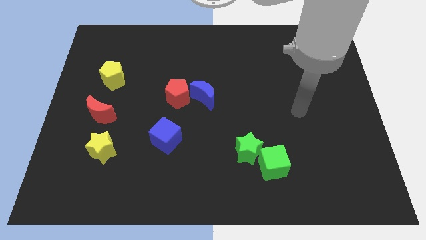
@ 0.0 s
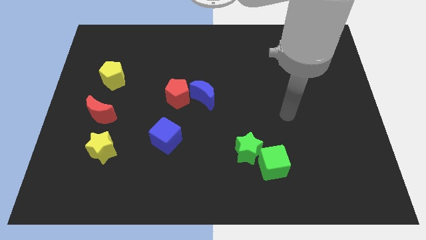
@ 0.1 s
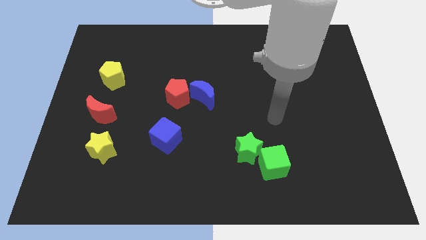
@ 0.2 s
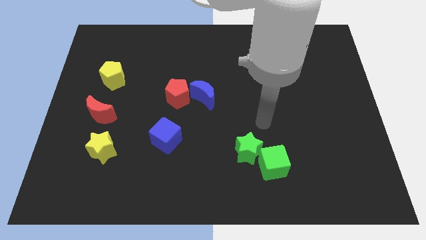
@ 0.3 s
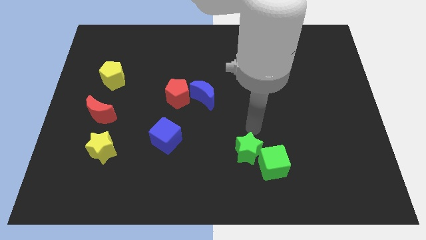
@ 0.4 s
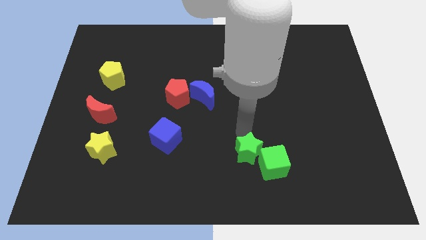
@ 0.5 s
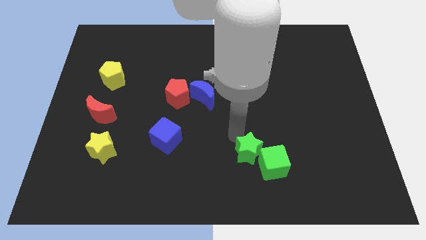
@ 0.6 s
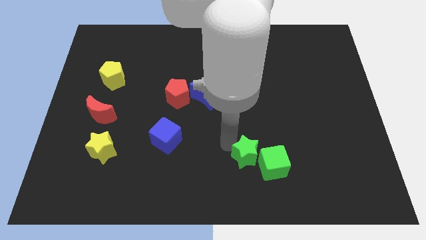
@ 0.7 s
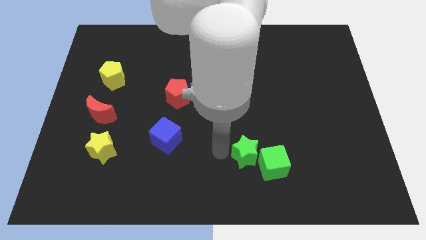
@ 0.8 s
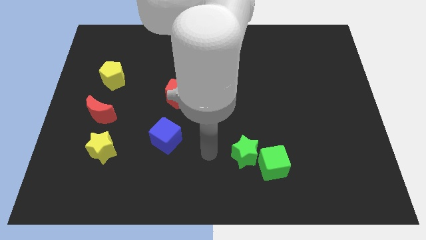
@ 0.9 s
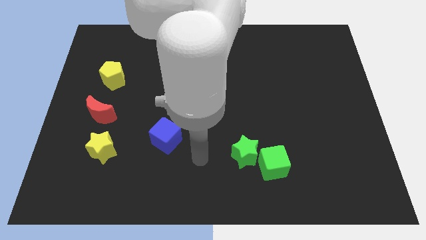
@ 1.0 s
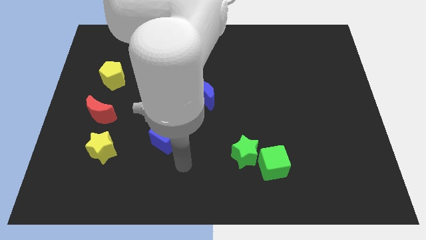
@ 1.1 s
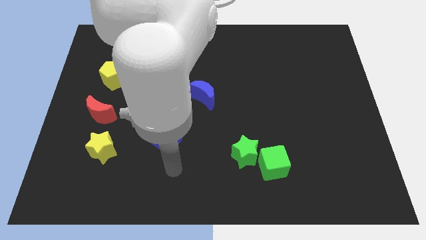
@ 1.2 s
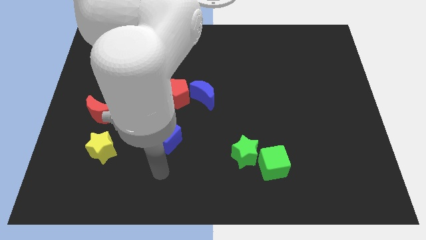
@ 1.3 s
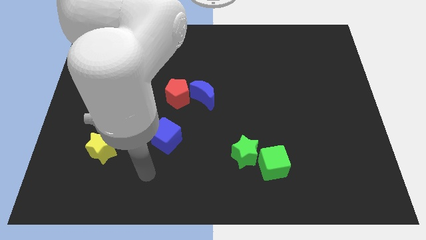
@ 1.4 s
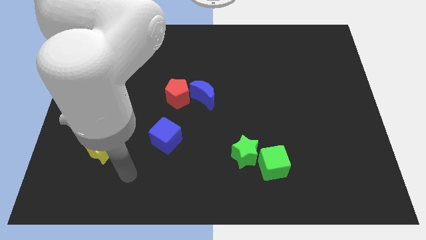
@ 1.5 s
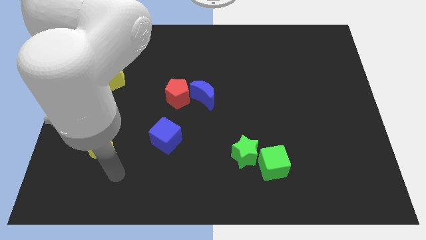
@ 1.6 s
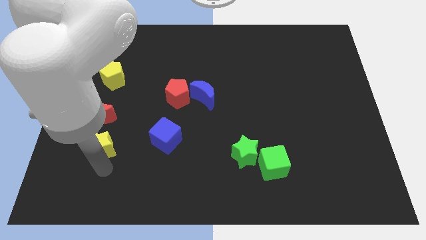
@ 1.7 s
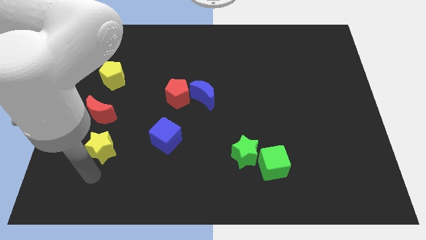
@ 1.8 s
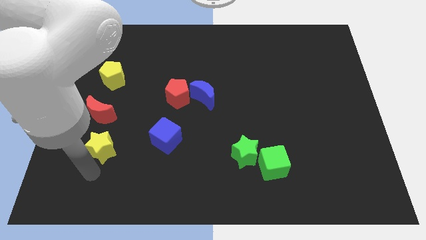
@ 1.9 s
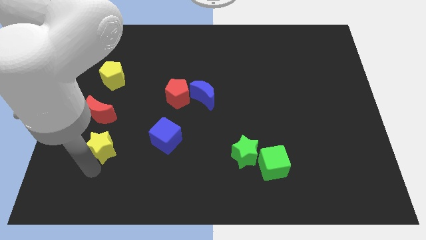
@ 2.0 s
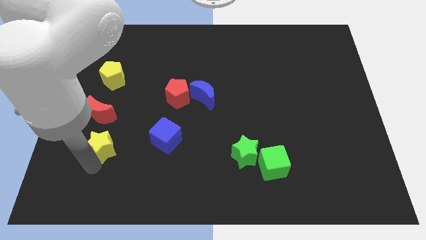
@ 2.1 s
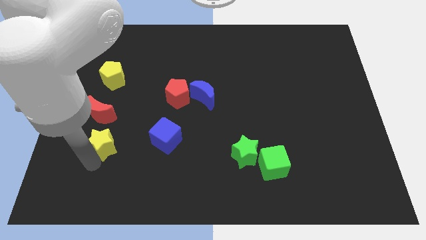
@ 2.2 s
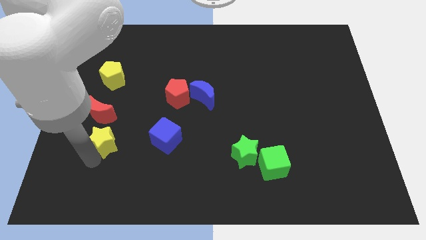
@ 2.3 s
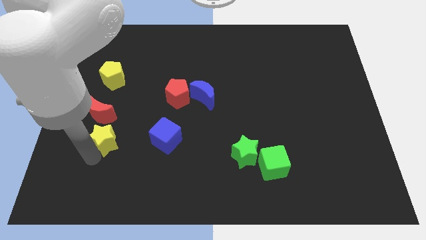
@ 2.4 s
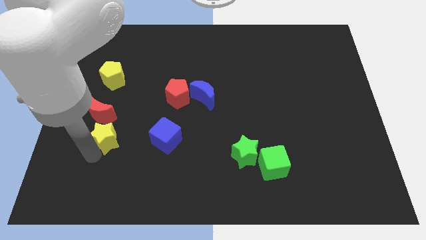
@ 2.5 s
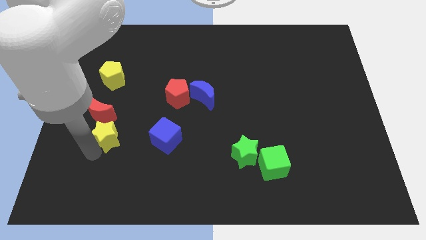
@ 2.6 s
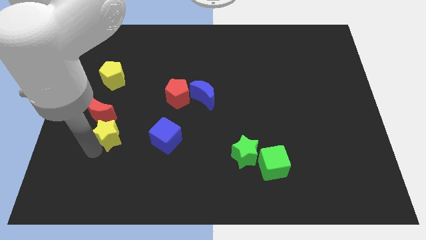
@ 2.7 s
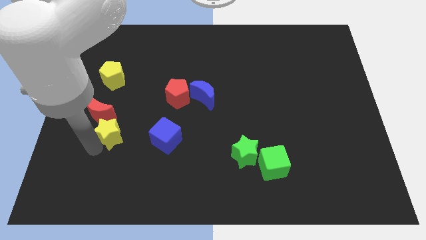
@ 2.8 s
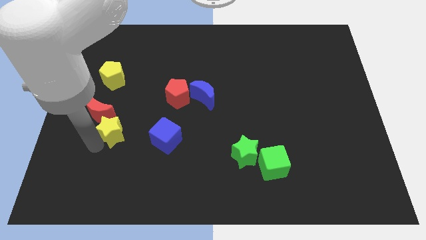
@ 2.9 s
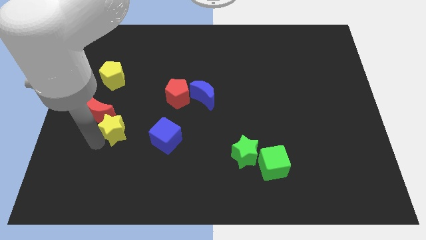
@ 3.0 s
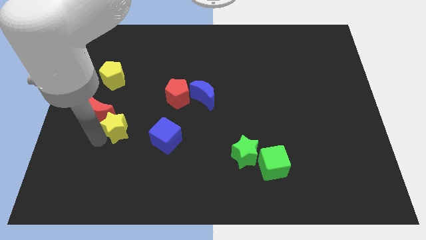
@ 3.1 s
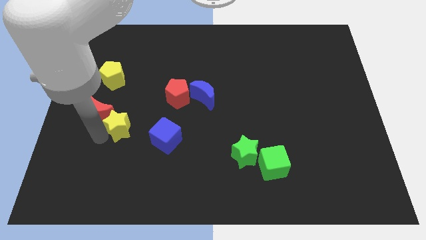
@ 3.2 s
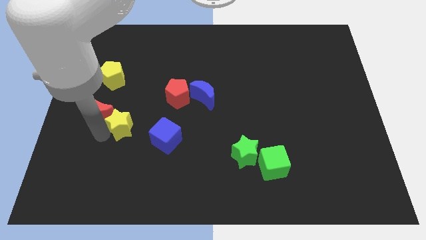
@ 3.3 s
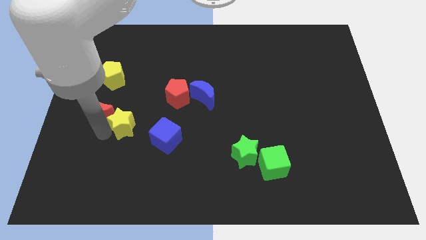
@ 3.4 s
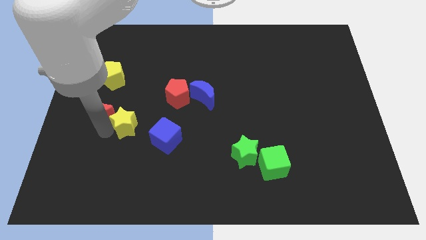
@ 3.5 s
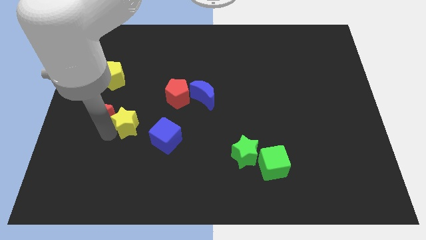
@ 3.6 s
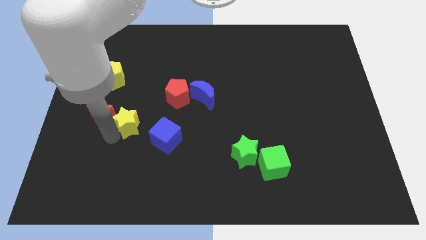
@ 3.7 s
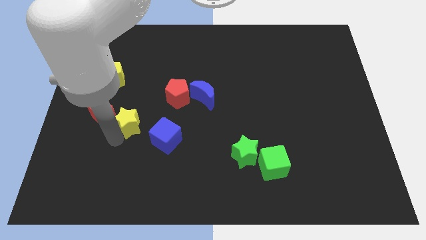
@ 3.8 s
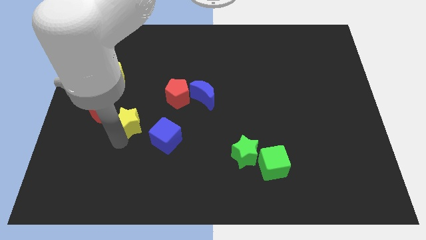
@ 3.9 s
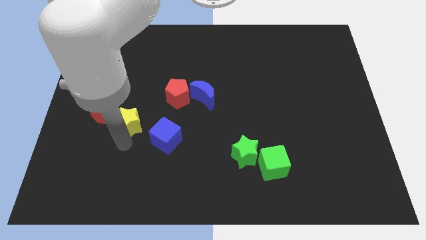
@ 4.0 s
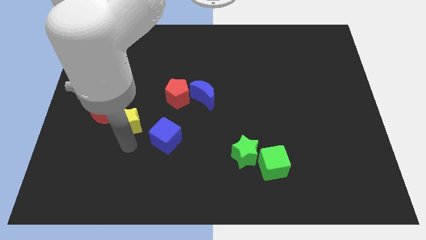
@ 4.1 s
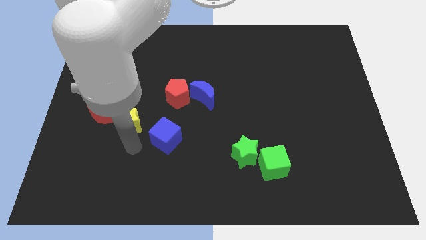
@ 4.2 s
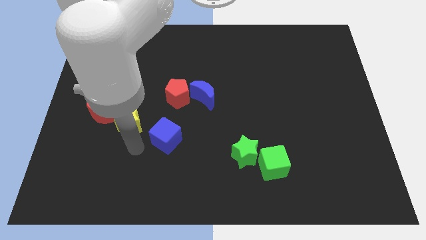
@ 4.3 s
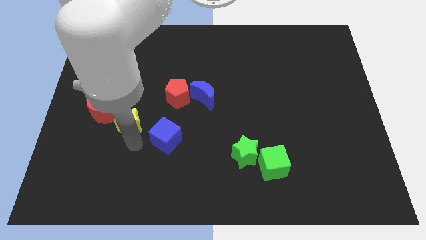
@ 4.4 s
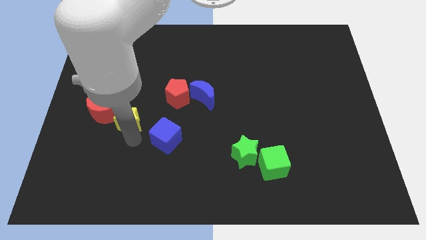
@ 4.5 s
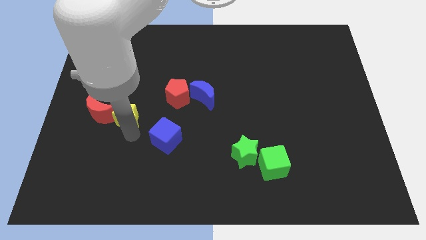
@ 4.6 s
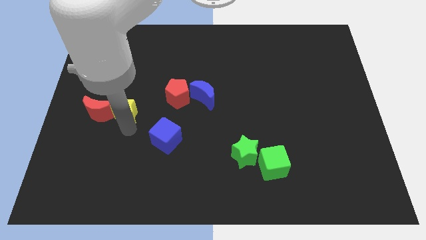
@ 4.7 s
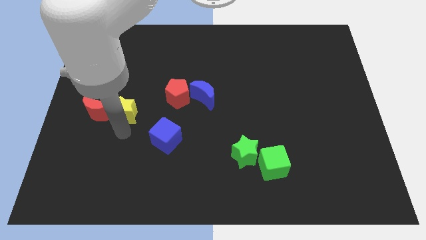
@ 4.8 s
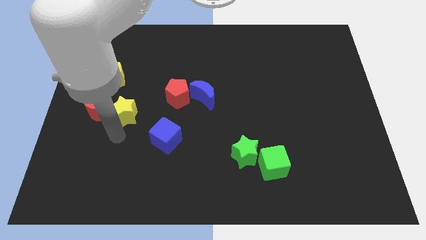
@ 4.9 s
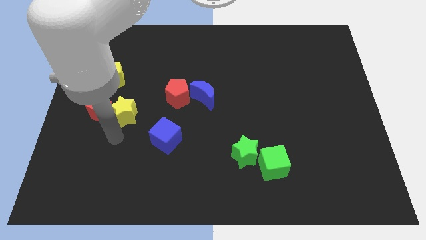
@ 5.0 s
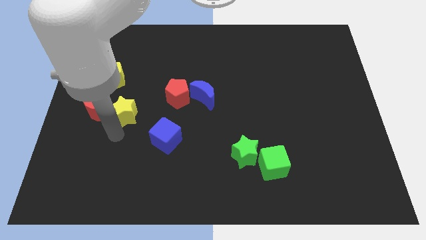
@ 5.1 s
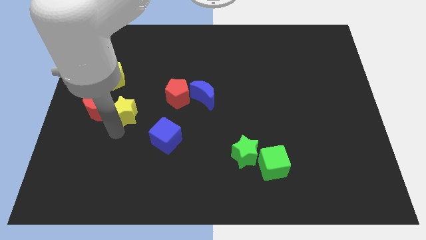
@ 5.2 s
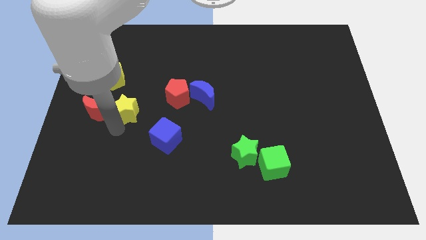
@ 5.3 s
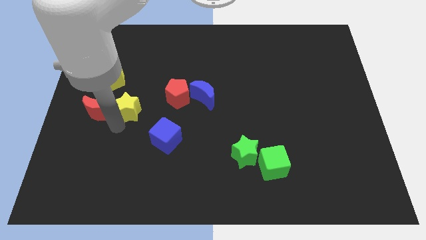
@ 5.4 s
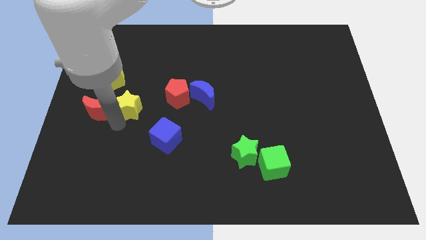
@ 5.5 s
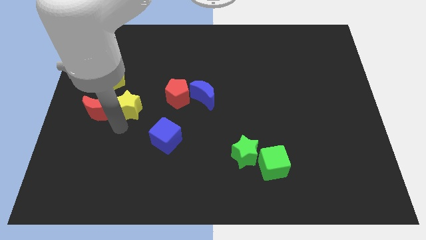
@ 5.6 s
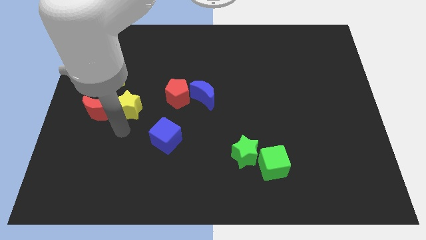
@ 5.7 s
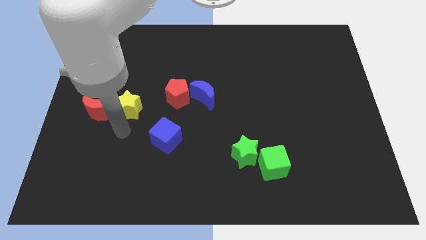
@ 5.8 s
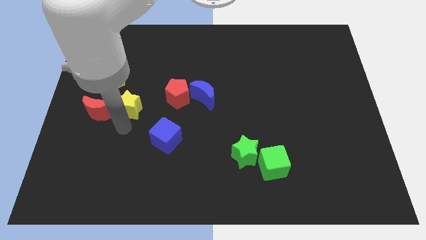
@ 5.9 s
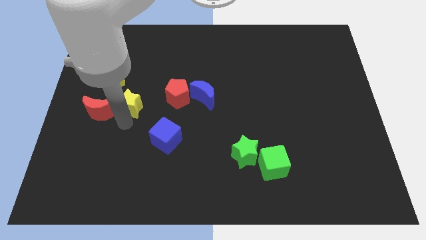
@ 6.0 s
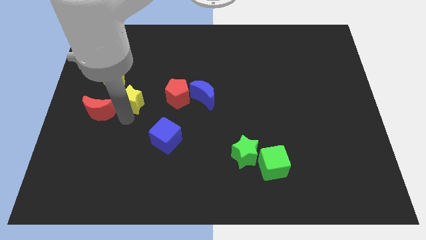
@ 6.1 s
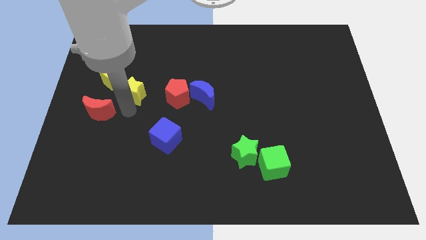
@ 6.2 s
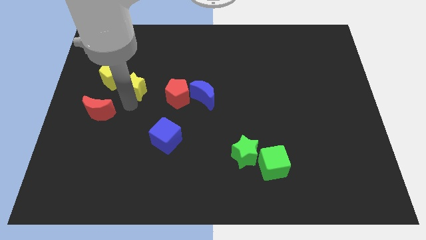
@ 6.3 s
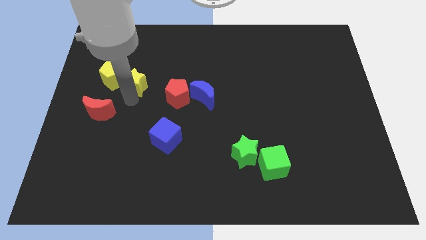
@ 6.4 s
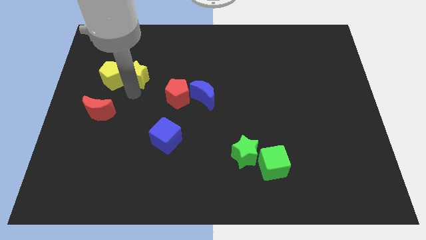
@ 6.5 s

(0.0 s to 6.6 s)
move the yellow star to the top right side of the yellow pentagon

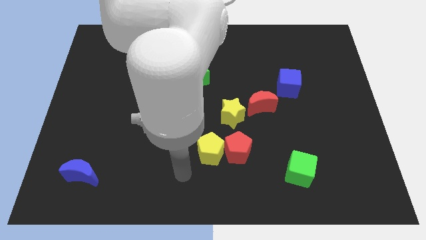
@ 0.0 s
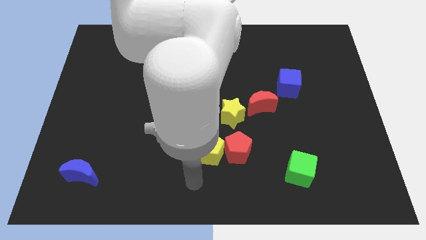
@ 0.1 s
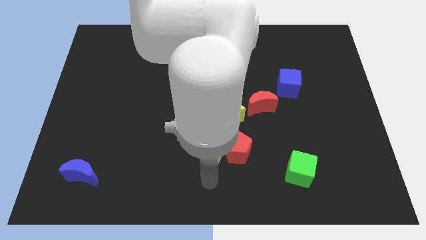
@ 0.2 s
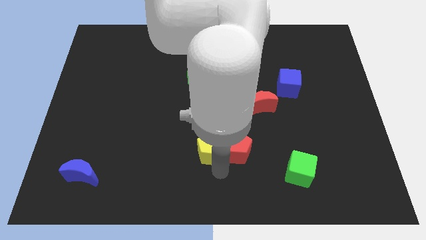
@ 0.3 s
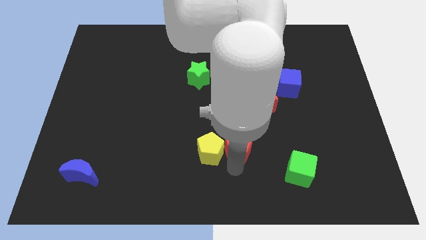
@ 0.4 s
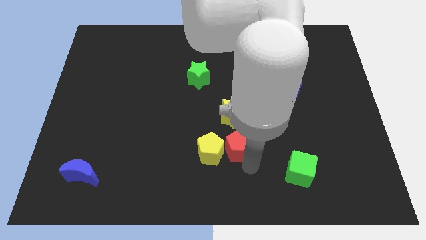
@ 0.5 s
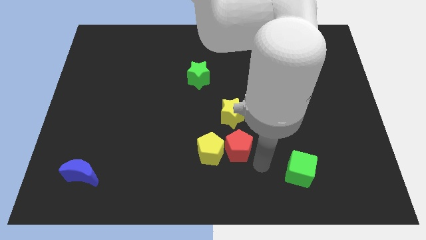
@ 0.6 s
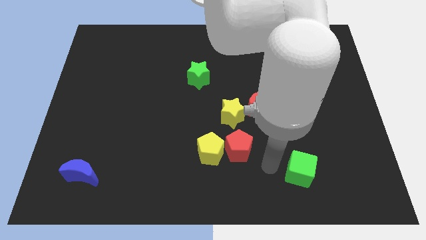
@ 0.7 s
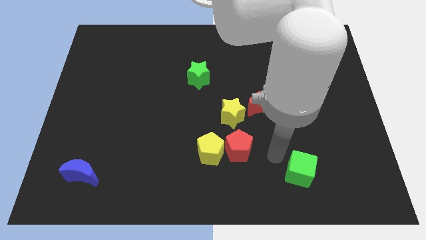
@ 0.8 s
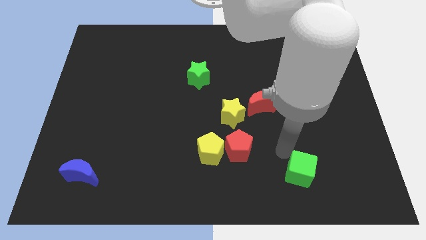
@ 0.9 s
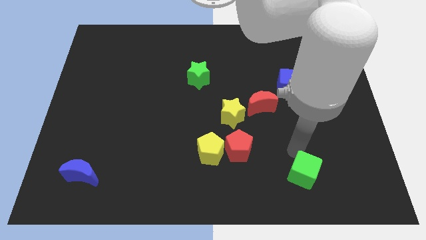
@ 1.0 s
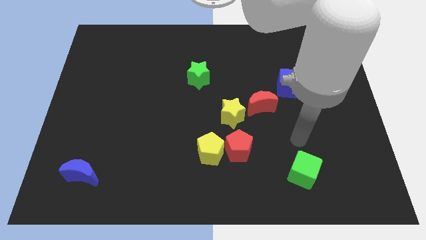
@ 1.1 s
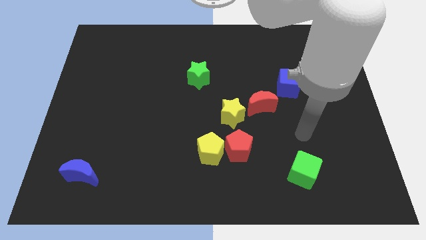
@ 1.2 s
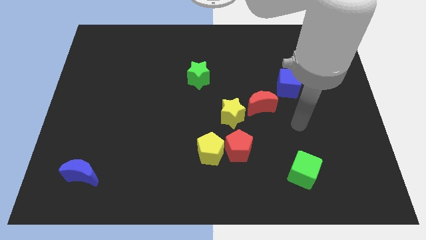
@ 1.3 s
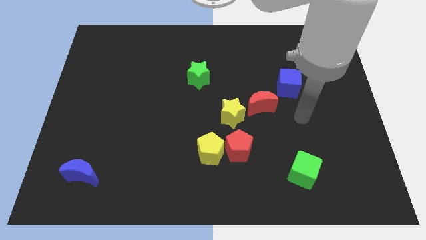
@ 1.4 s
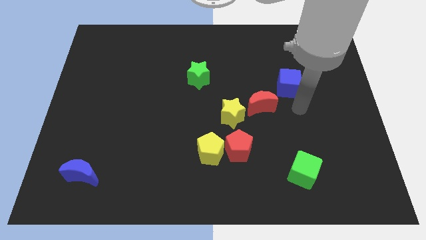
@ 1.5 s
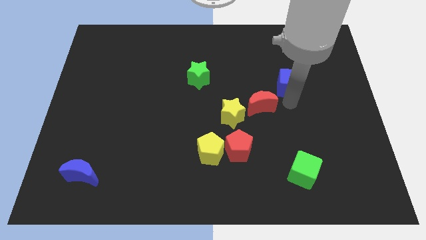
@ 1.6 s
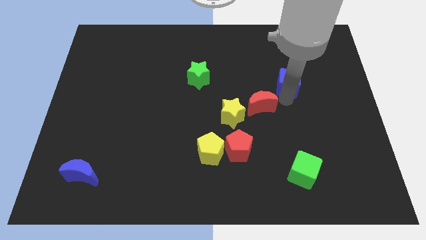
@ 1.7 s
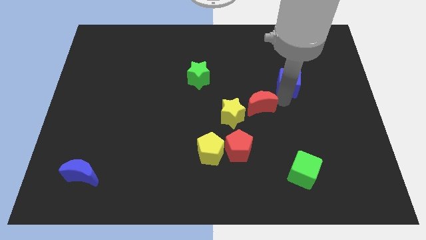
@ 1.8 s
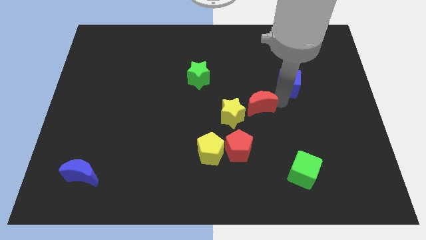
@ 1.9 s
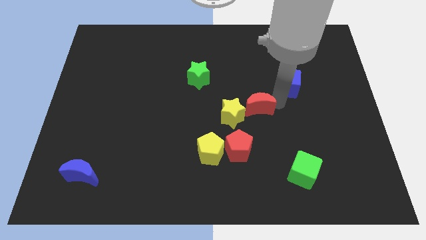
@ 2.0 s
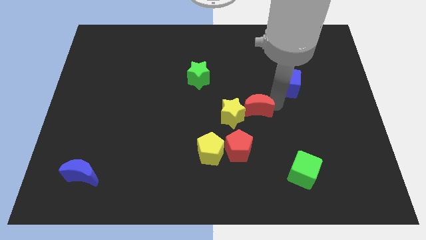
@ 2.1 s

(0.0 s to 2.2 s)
slide the red moon to the top side of the red pentagon
